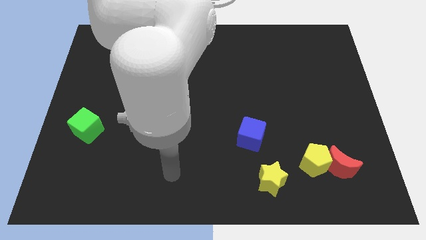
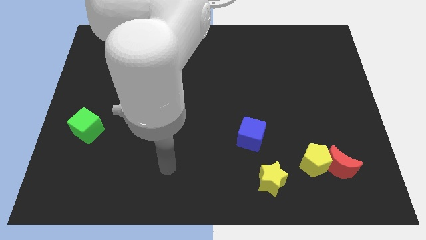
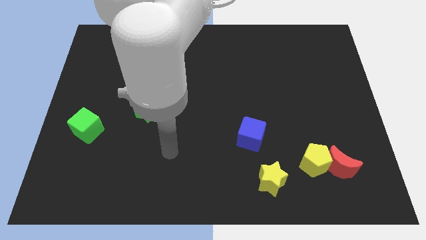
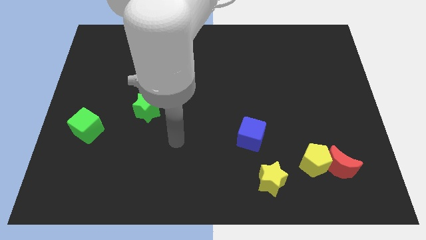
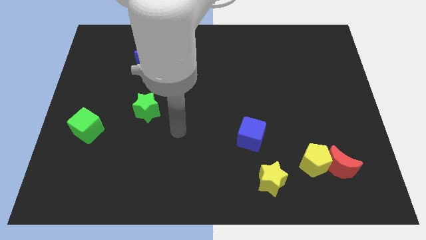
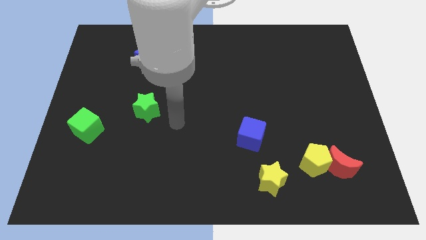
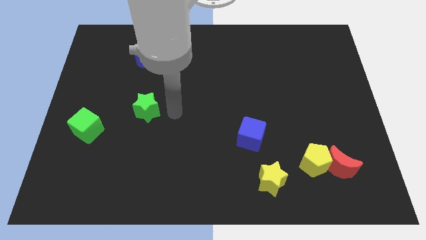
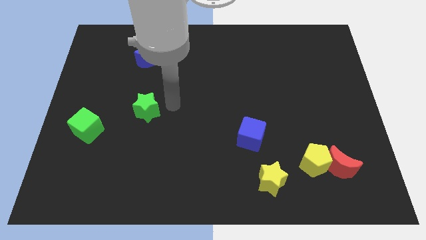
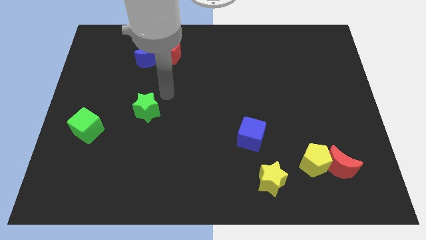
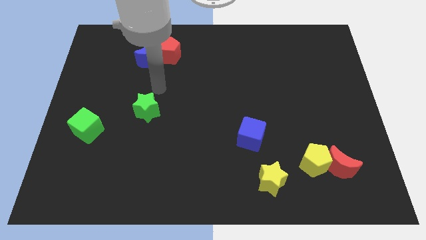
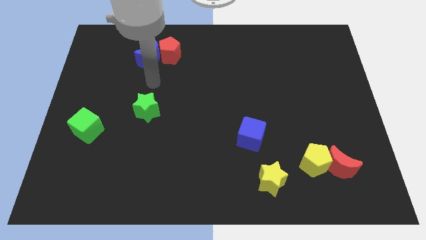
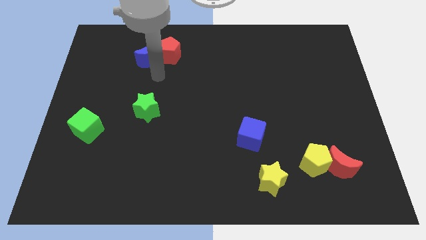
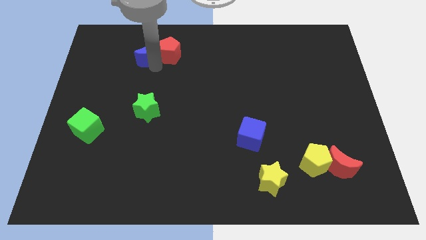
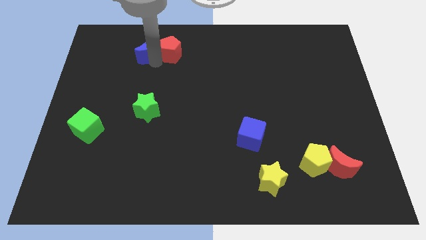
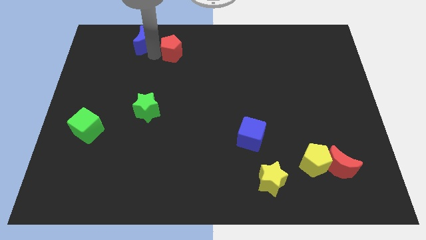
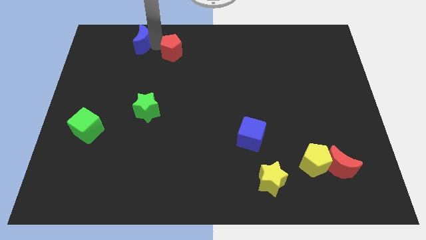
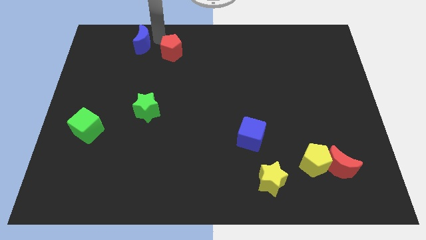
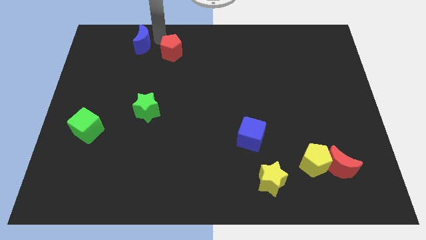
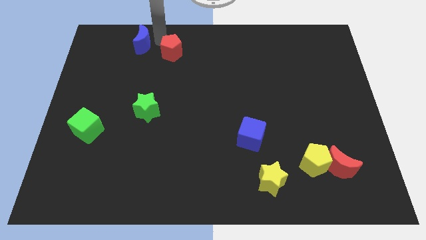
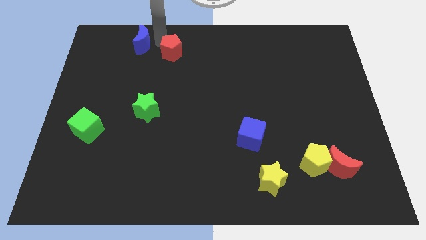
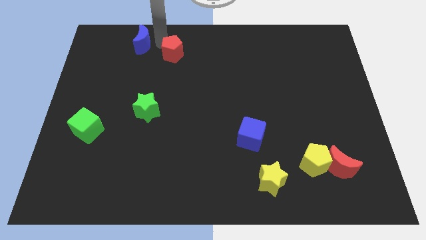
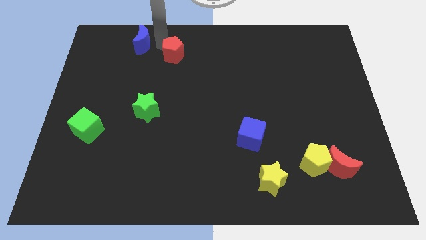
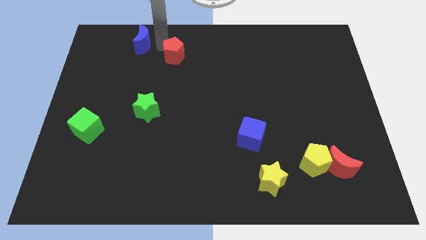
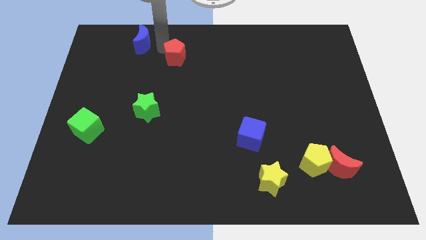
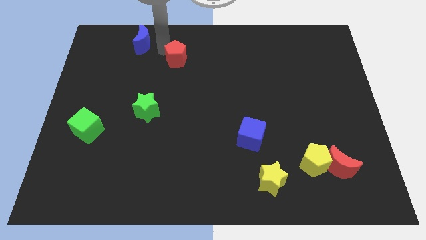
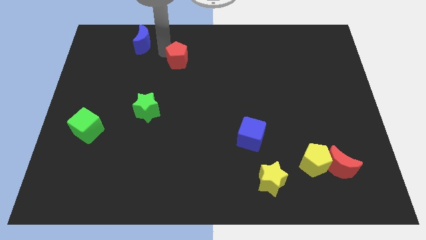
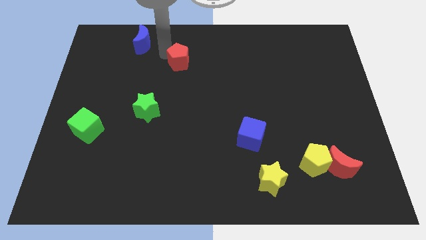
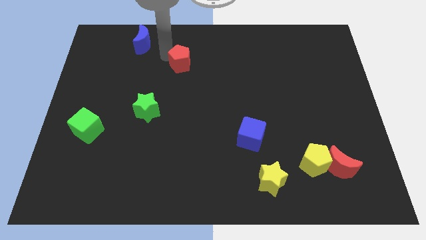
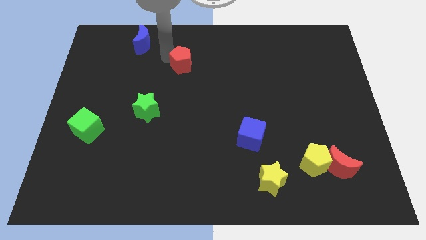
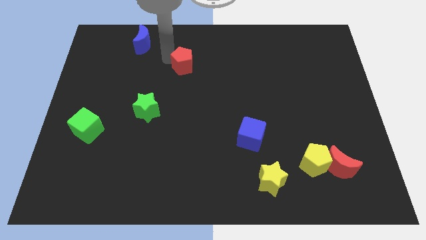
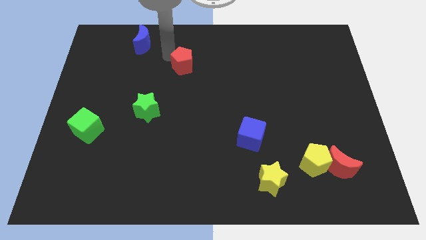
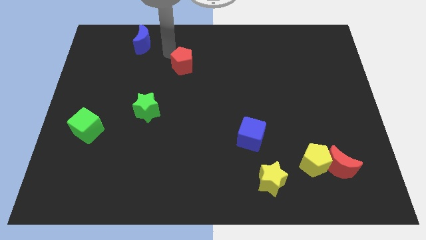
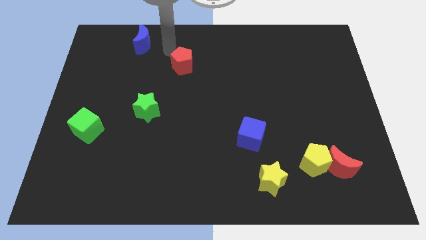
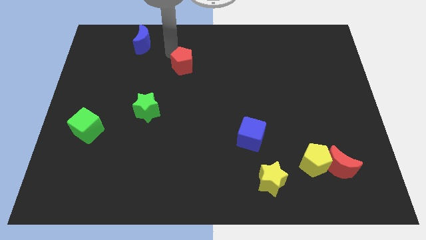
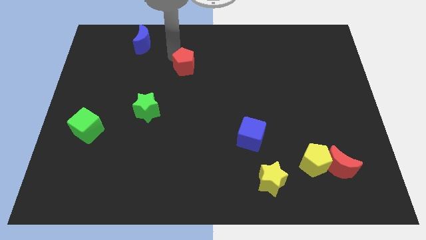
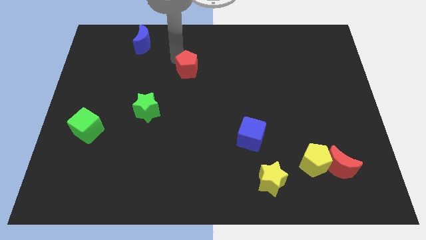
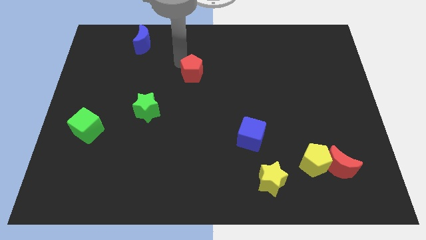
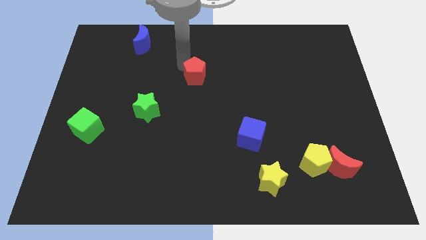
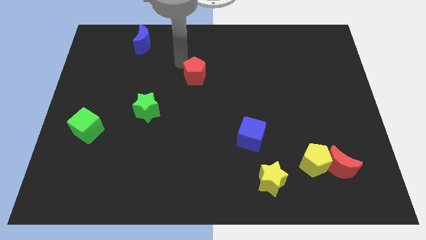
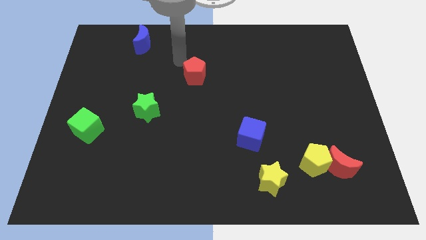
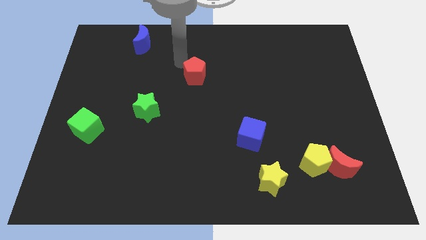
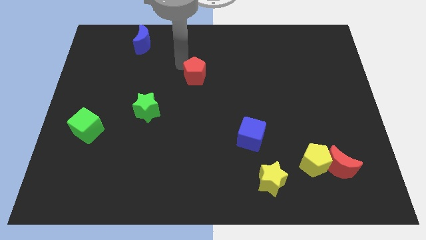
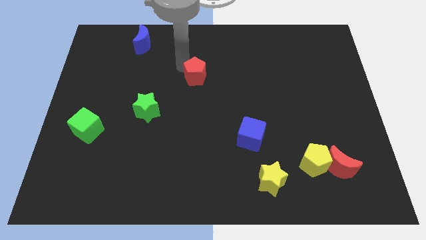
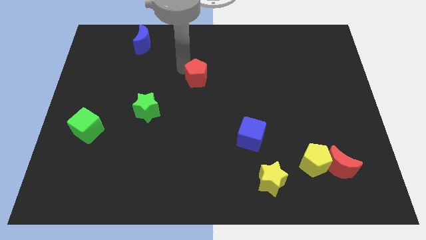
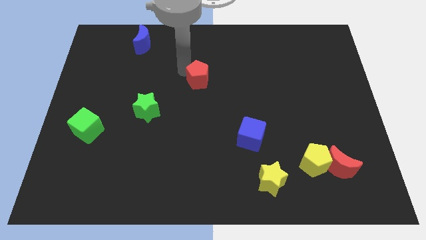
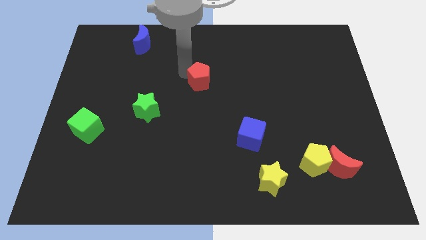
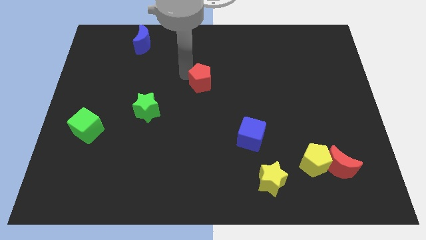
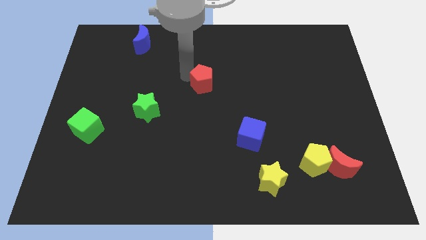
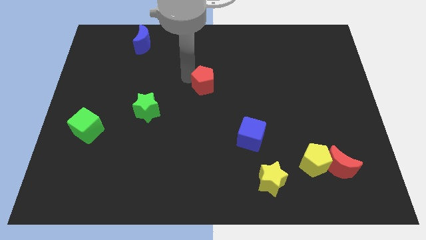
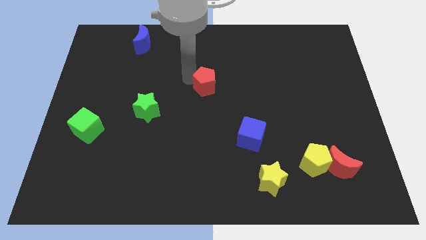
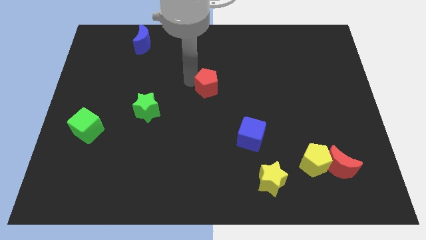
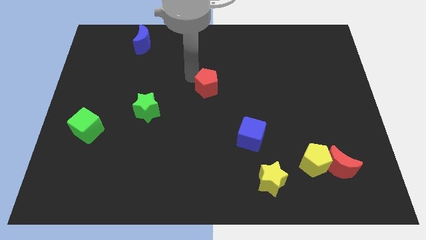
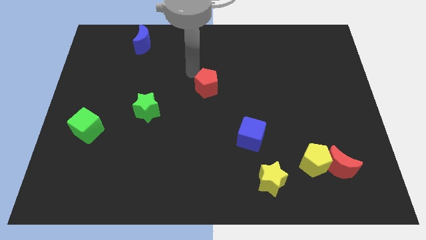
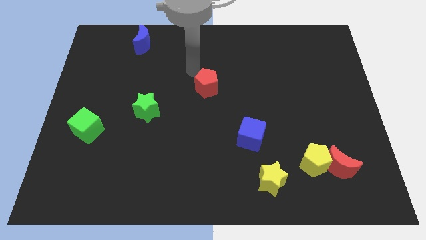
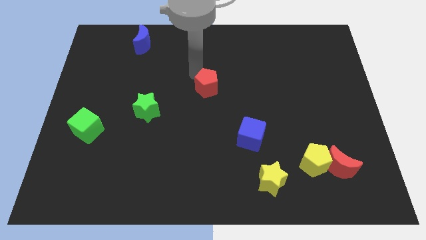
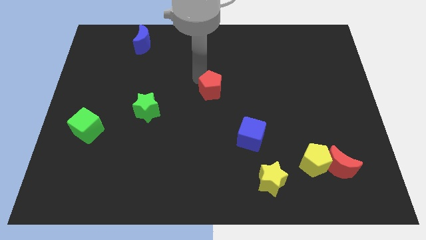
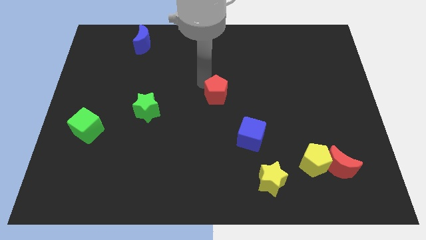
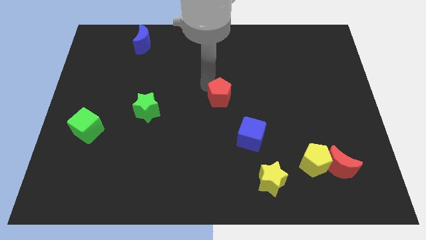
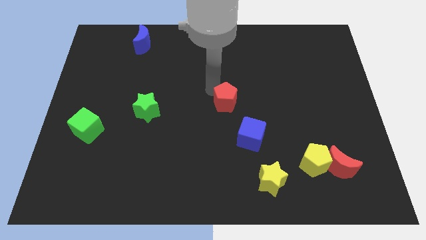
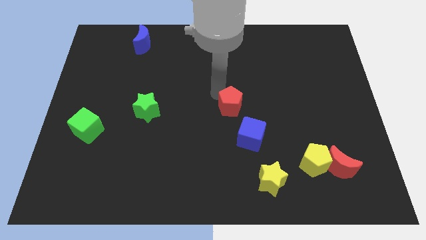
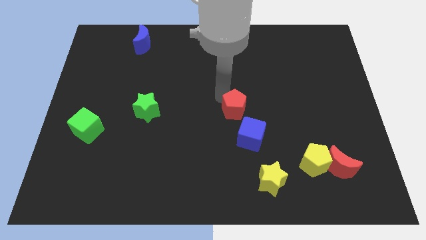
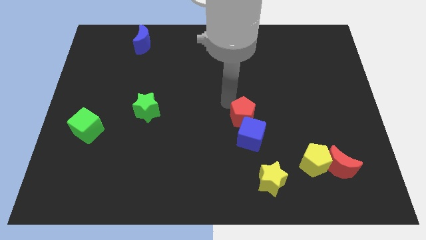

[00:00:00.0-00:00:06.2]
put the red pentagon to the blue cube
